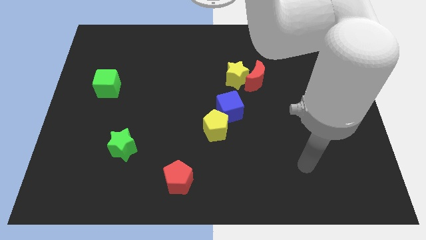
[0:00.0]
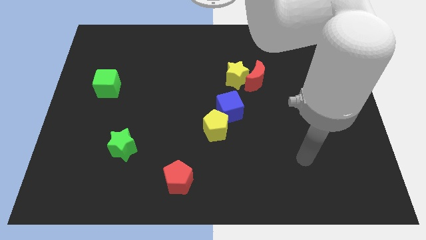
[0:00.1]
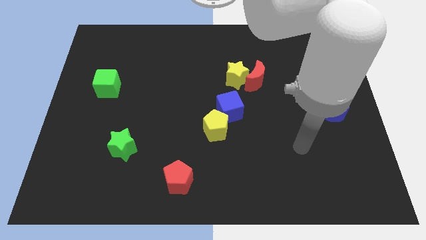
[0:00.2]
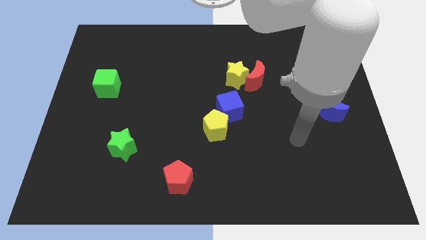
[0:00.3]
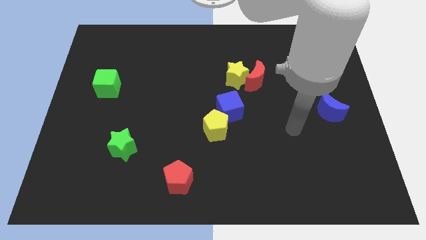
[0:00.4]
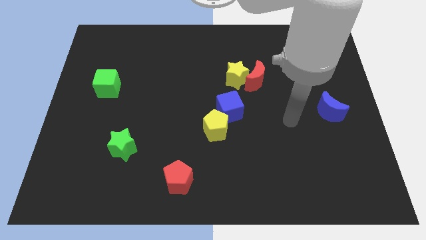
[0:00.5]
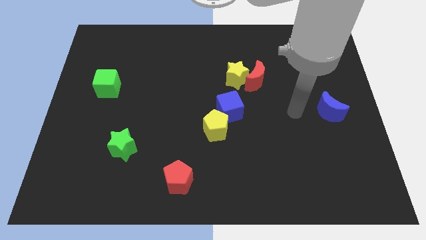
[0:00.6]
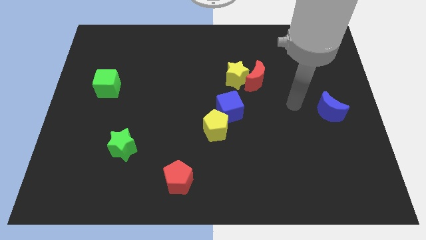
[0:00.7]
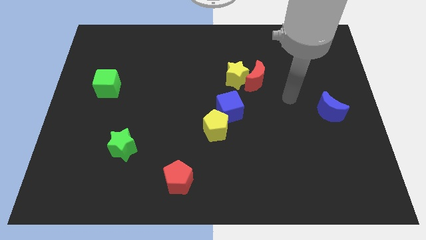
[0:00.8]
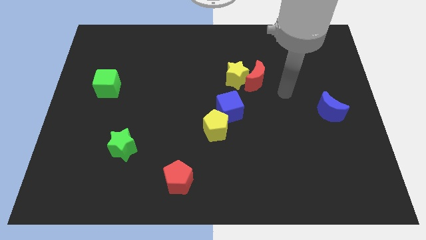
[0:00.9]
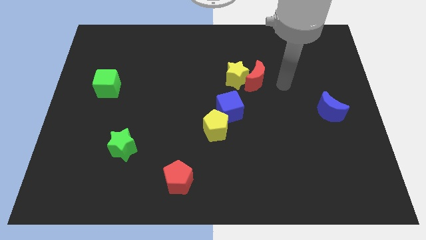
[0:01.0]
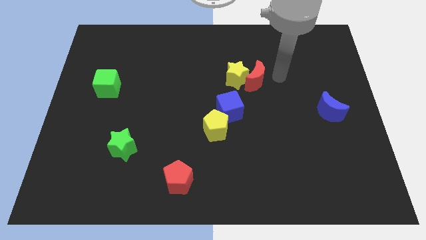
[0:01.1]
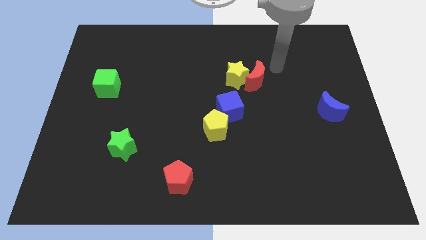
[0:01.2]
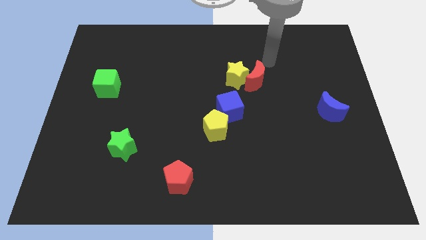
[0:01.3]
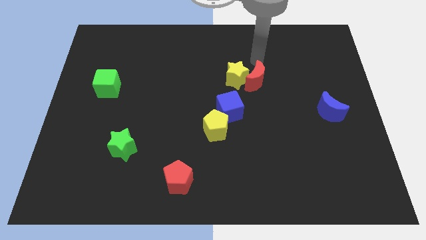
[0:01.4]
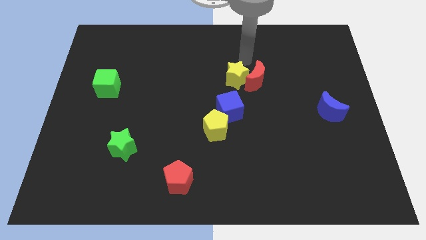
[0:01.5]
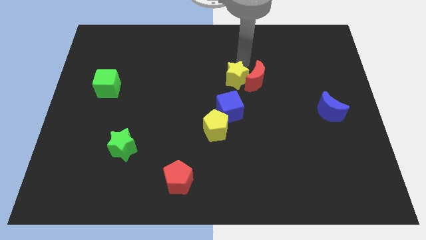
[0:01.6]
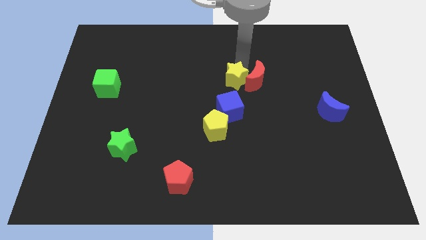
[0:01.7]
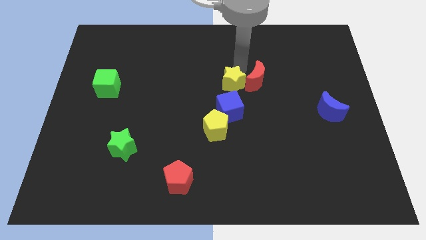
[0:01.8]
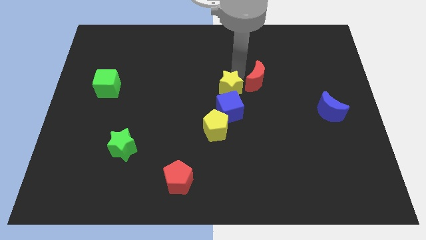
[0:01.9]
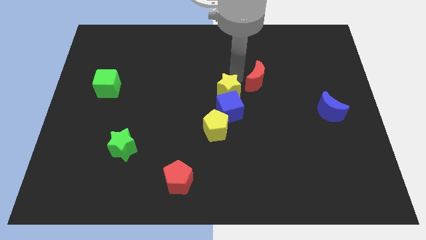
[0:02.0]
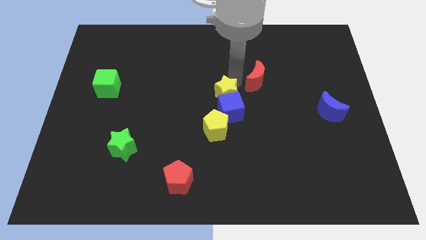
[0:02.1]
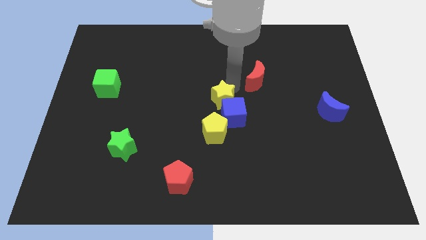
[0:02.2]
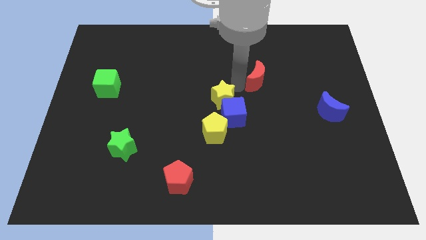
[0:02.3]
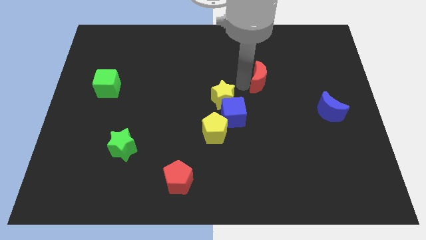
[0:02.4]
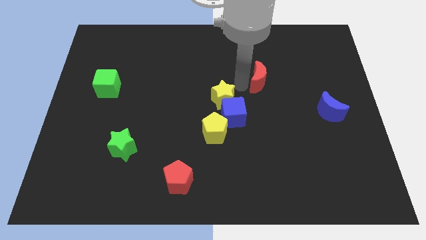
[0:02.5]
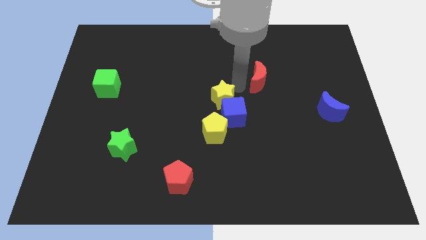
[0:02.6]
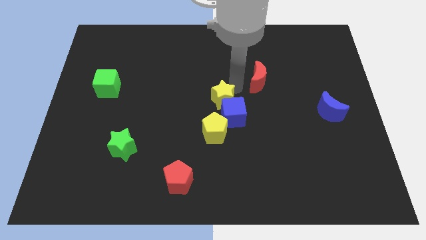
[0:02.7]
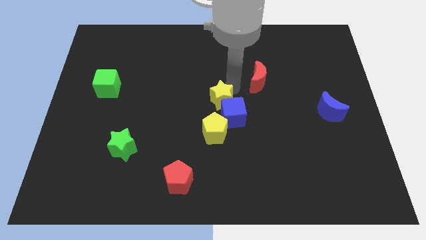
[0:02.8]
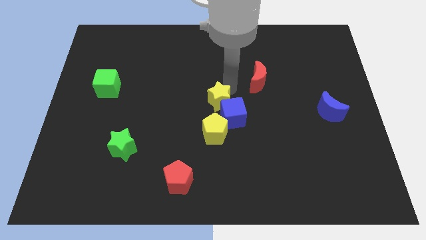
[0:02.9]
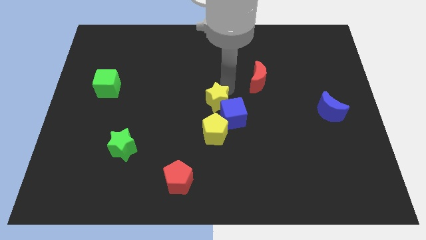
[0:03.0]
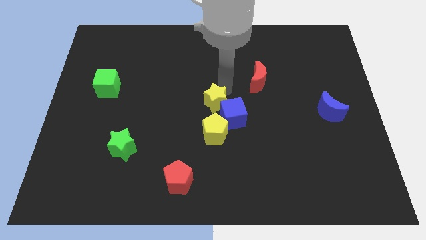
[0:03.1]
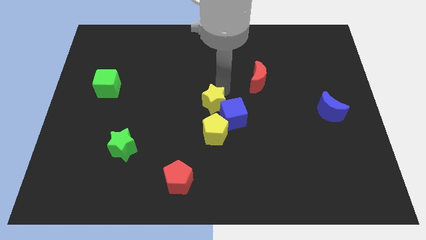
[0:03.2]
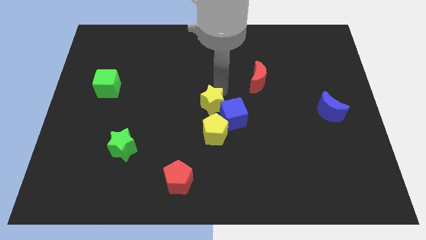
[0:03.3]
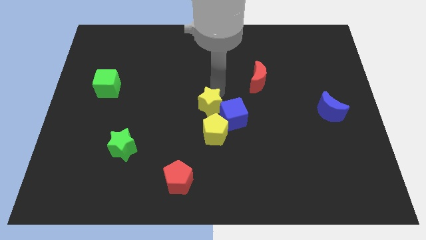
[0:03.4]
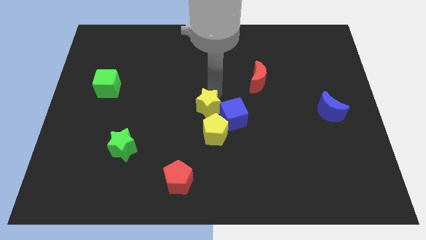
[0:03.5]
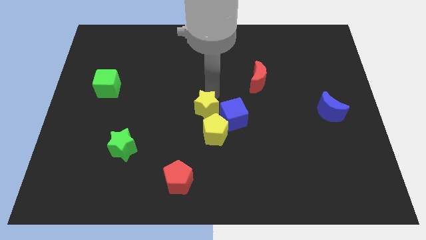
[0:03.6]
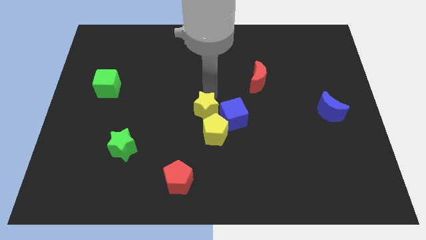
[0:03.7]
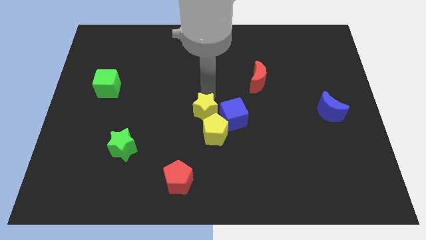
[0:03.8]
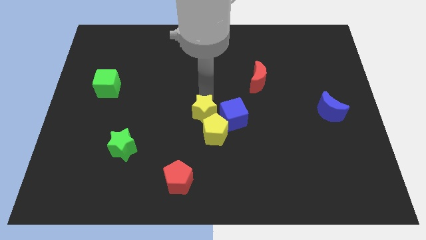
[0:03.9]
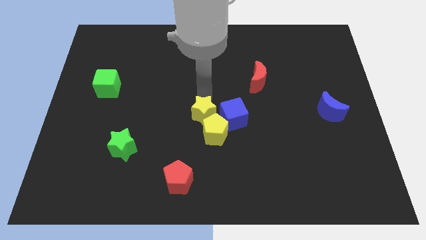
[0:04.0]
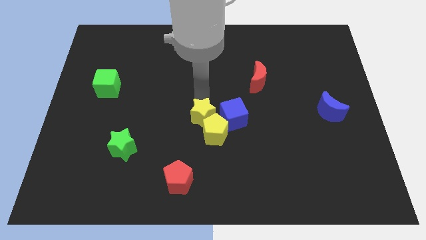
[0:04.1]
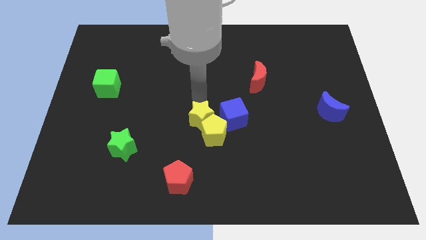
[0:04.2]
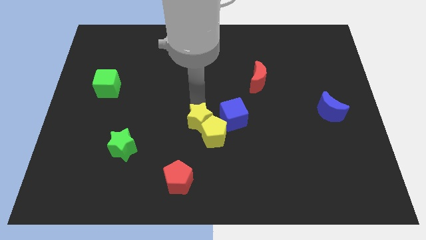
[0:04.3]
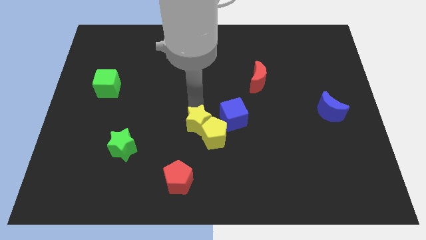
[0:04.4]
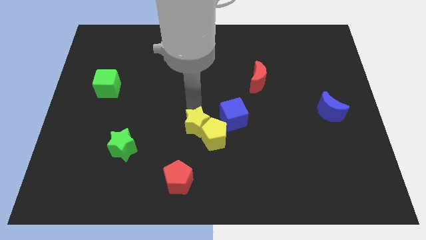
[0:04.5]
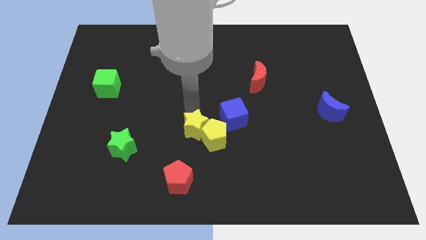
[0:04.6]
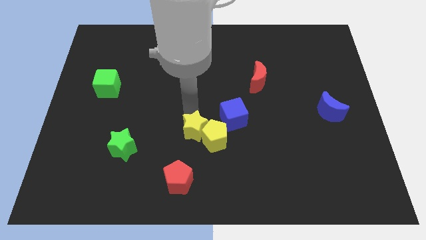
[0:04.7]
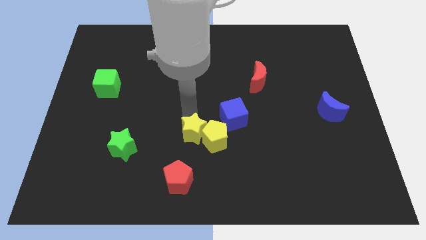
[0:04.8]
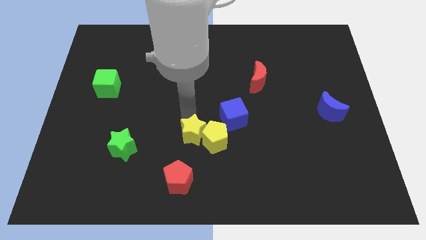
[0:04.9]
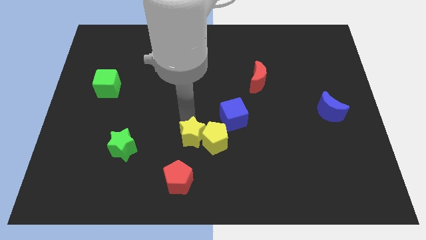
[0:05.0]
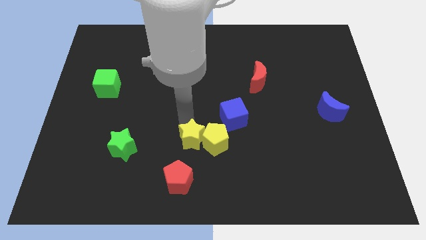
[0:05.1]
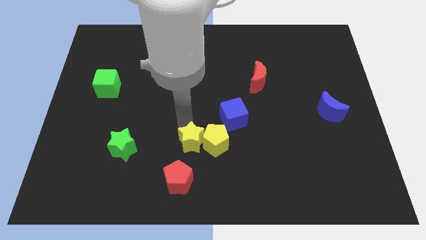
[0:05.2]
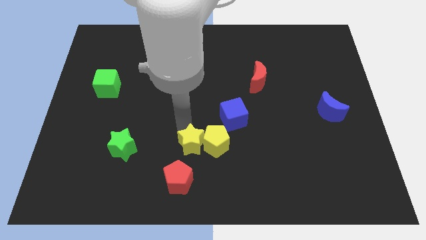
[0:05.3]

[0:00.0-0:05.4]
put the yellow star to the top right side of the red pentagon

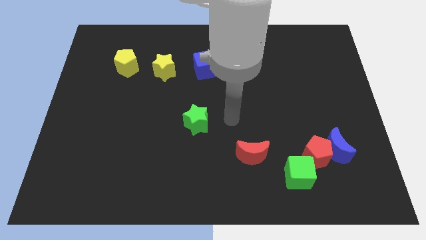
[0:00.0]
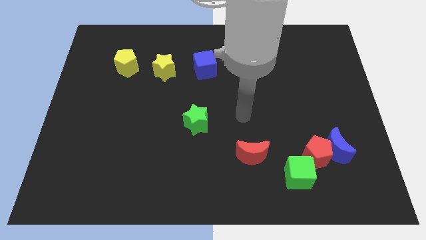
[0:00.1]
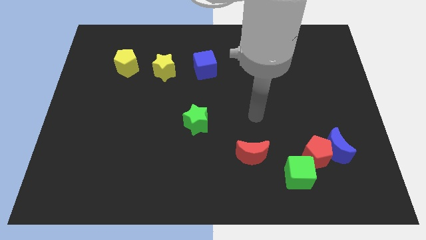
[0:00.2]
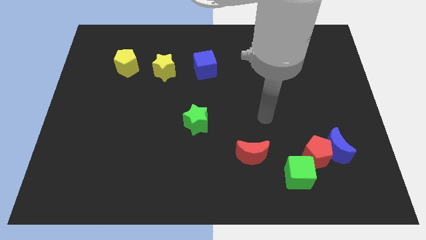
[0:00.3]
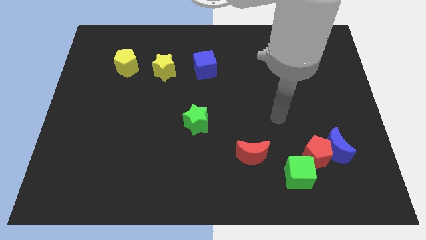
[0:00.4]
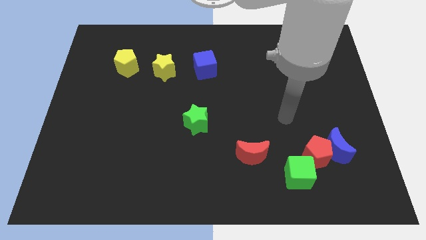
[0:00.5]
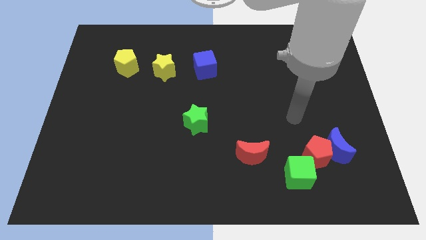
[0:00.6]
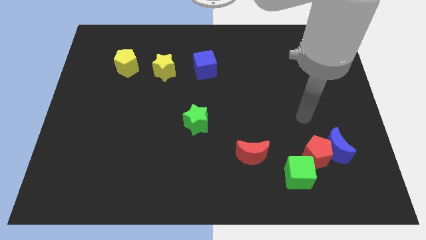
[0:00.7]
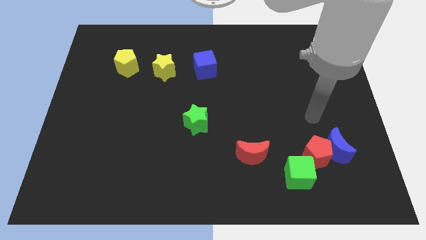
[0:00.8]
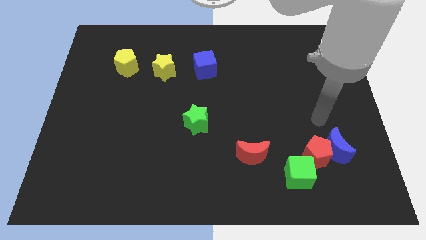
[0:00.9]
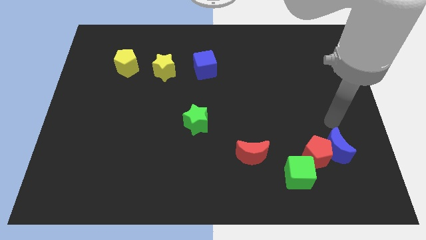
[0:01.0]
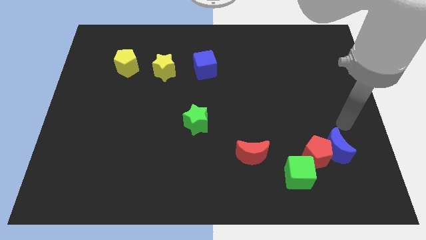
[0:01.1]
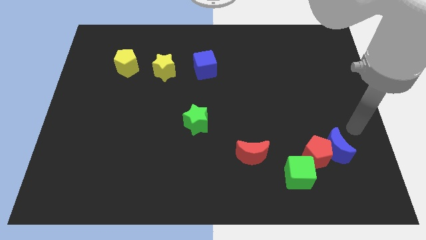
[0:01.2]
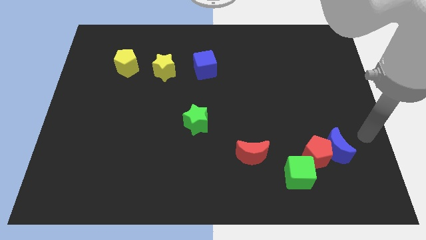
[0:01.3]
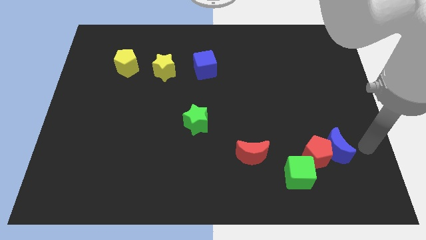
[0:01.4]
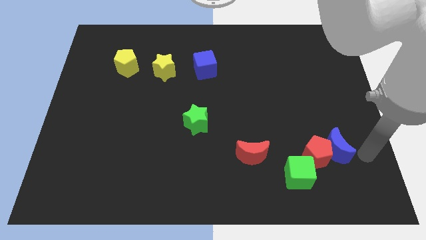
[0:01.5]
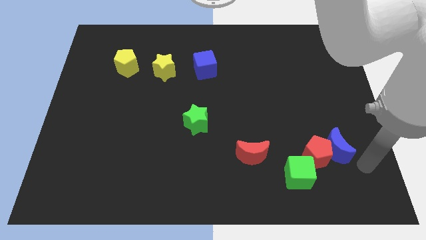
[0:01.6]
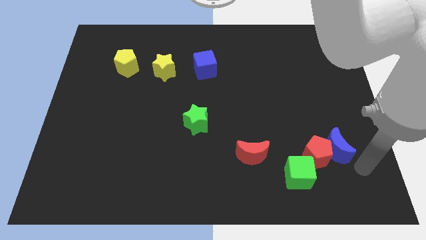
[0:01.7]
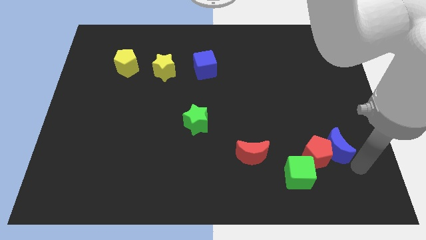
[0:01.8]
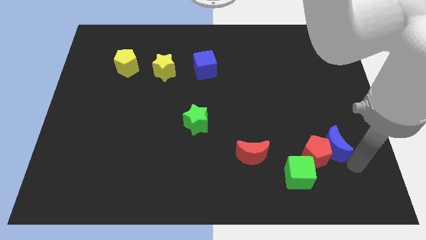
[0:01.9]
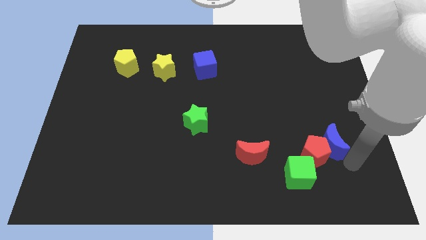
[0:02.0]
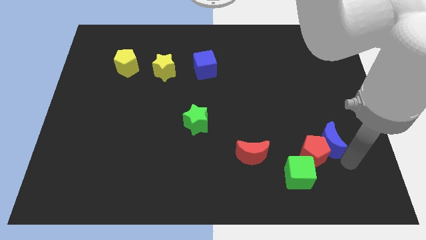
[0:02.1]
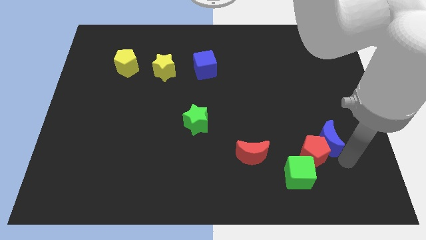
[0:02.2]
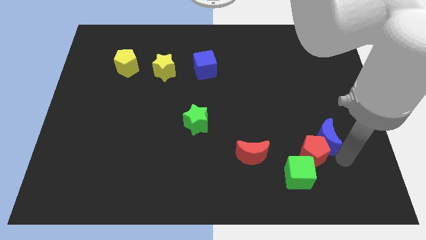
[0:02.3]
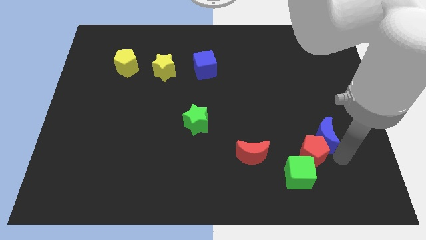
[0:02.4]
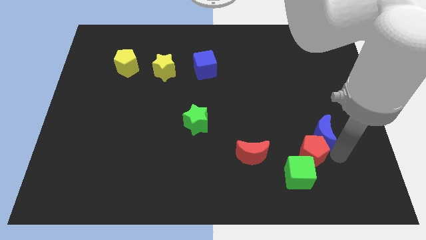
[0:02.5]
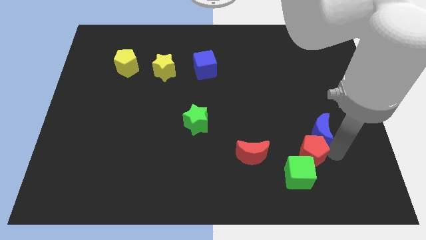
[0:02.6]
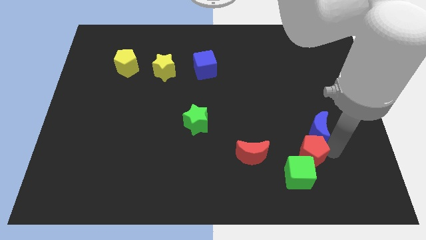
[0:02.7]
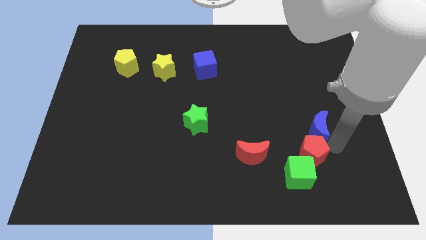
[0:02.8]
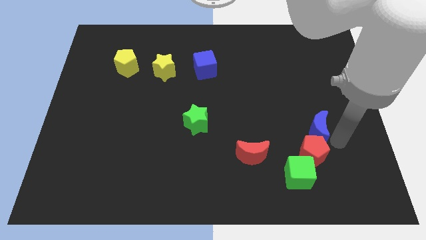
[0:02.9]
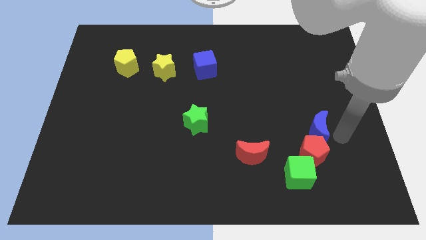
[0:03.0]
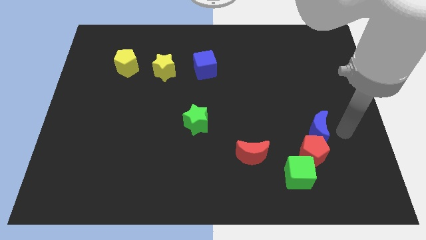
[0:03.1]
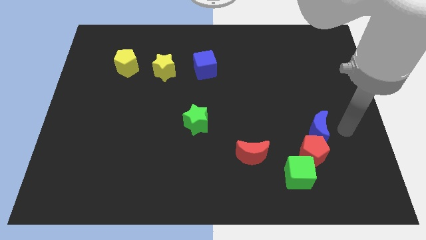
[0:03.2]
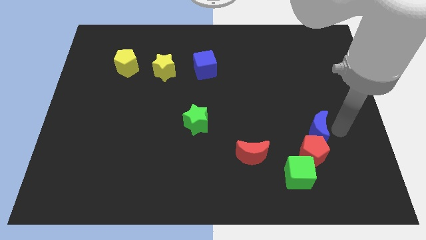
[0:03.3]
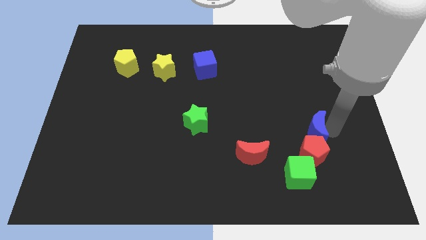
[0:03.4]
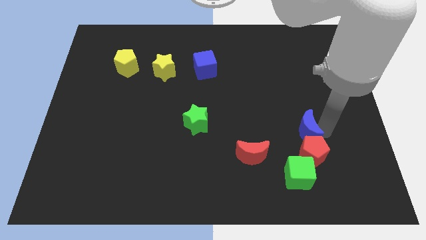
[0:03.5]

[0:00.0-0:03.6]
push the blue moon to the top side of the green cube
